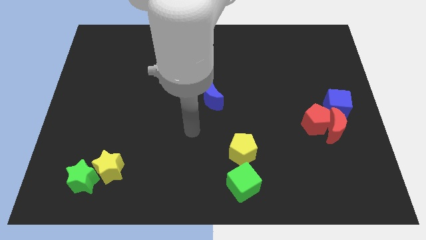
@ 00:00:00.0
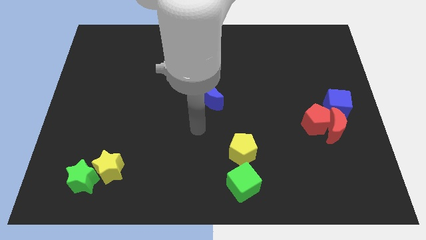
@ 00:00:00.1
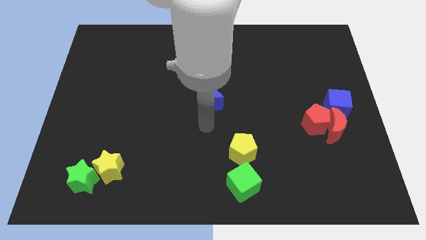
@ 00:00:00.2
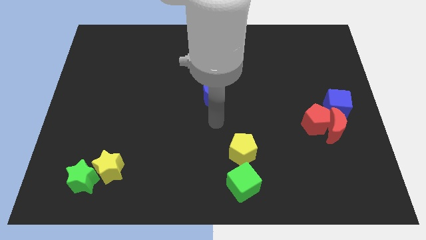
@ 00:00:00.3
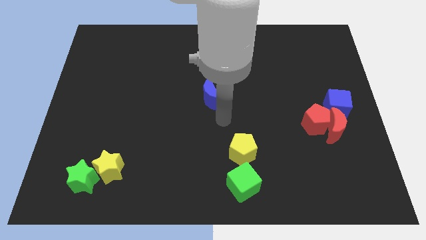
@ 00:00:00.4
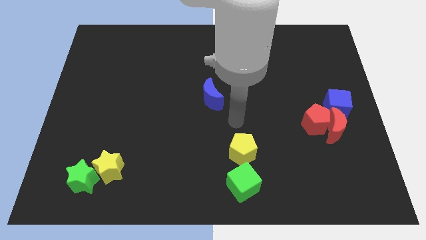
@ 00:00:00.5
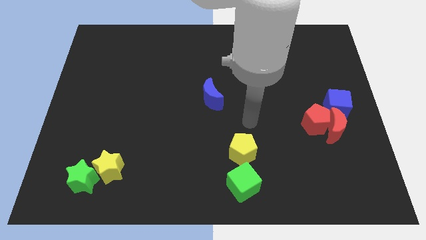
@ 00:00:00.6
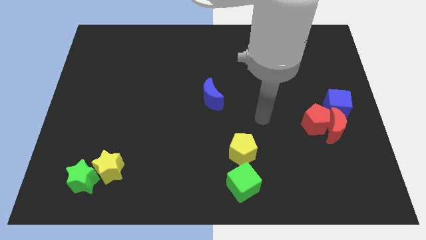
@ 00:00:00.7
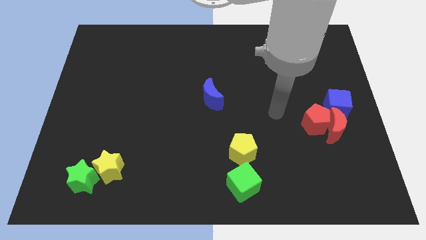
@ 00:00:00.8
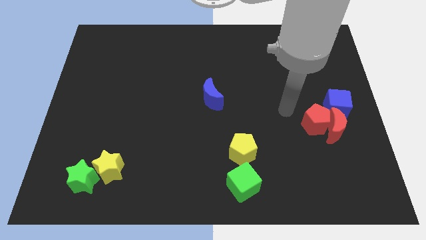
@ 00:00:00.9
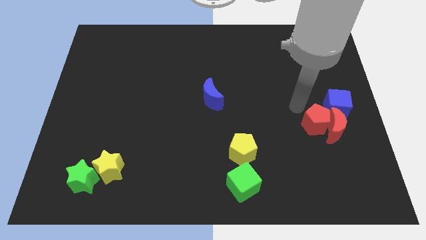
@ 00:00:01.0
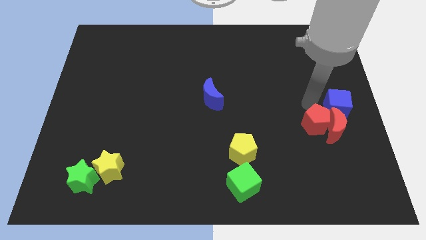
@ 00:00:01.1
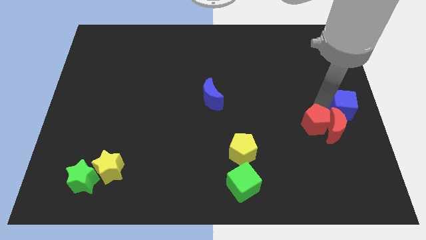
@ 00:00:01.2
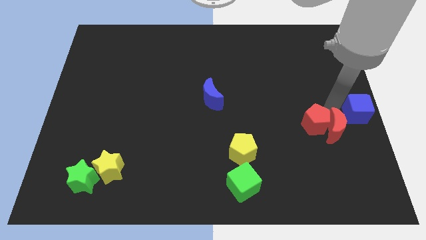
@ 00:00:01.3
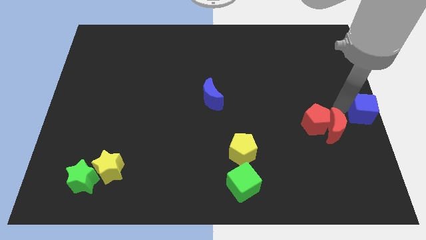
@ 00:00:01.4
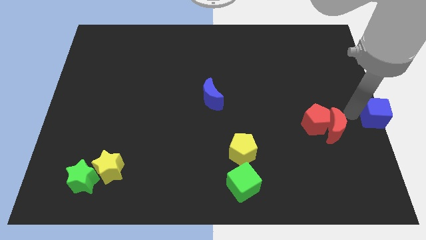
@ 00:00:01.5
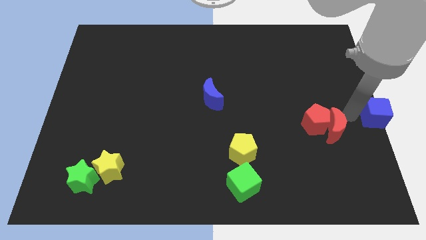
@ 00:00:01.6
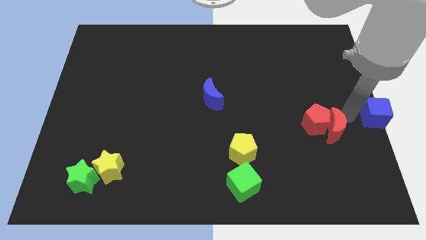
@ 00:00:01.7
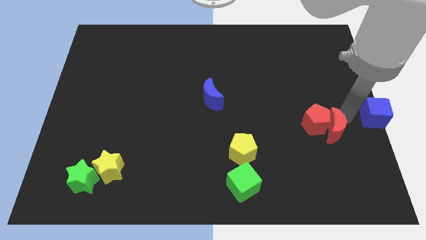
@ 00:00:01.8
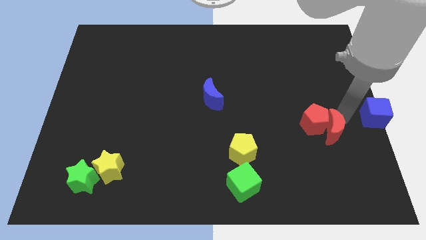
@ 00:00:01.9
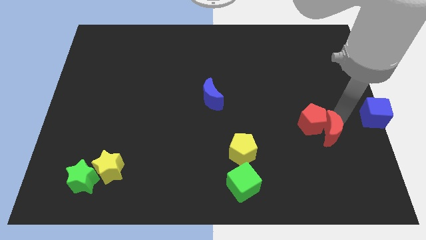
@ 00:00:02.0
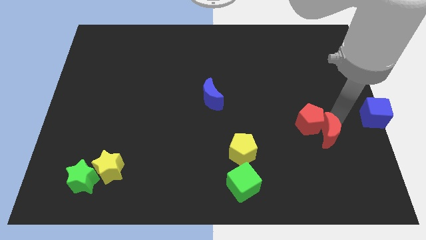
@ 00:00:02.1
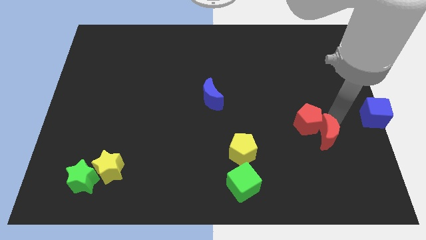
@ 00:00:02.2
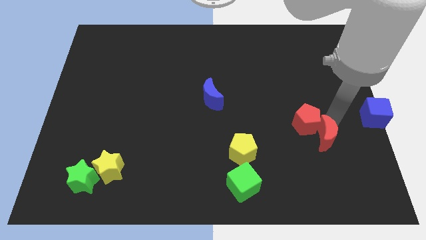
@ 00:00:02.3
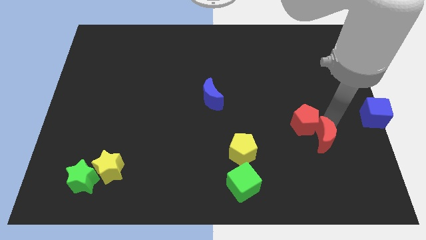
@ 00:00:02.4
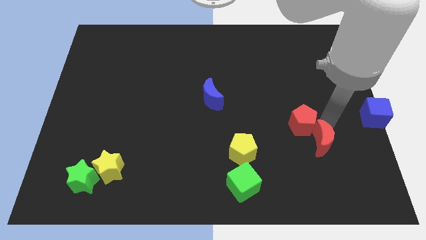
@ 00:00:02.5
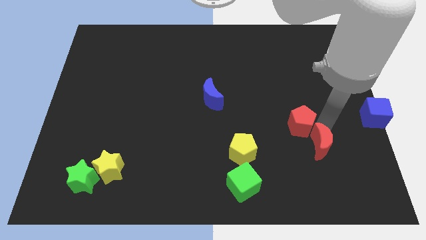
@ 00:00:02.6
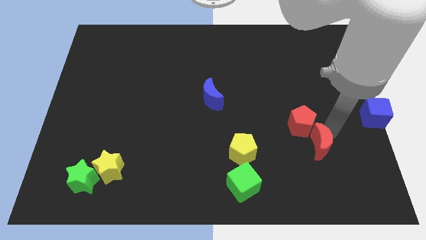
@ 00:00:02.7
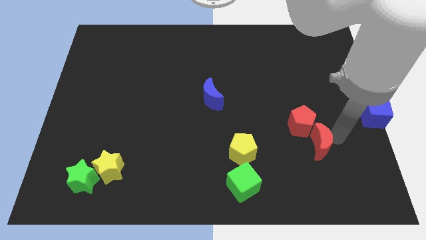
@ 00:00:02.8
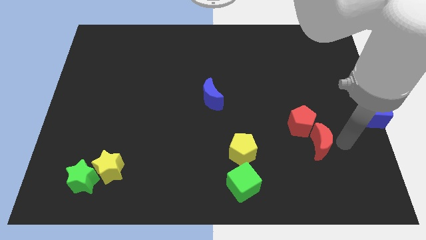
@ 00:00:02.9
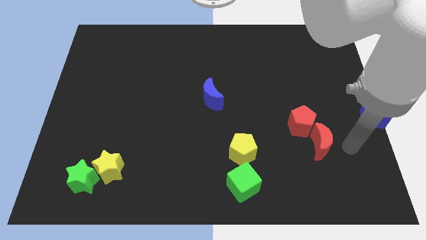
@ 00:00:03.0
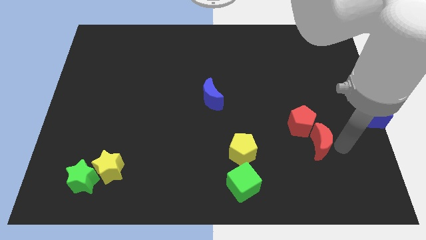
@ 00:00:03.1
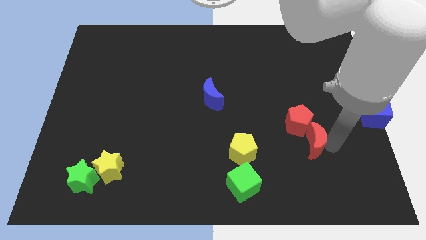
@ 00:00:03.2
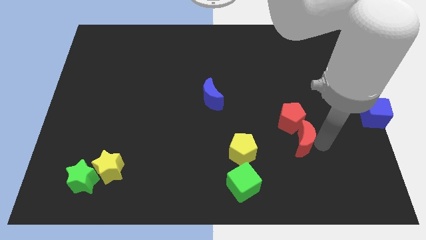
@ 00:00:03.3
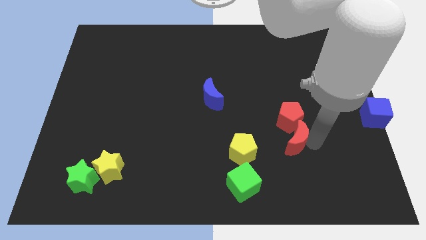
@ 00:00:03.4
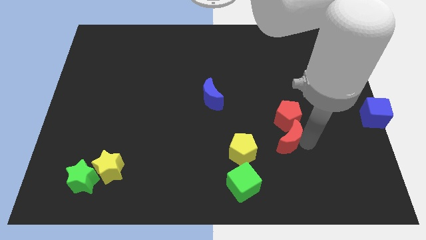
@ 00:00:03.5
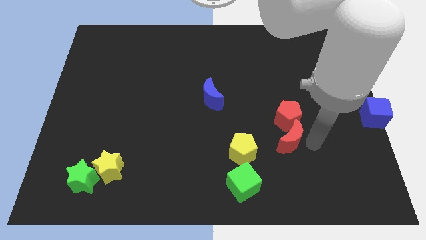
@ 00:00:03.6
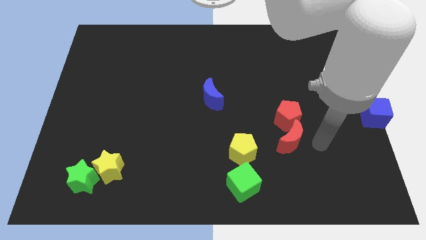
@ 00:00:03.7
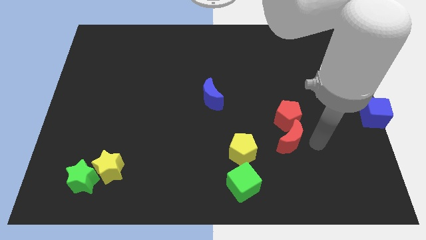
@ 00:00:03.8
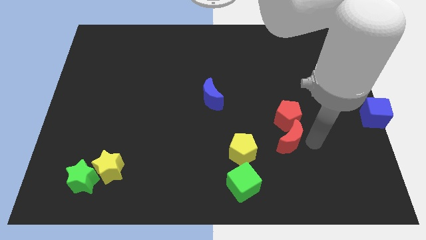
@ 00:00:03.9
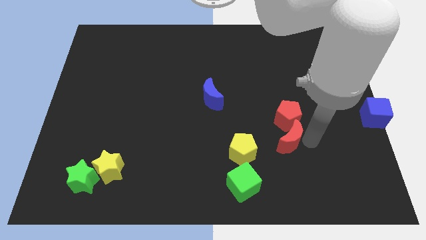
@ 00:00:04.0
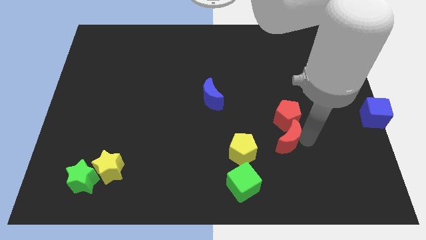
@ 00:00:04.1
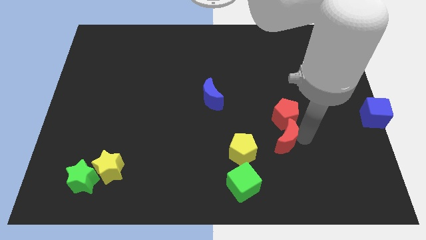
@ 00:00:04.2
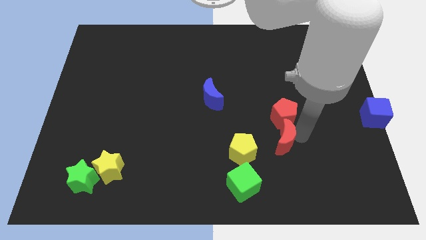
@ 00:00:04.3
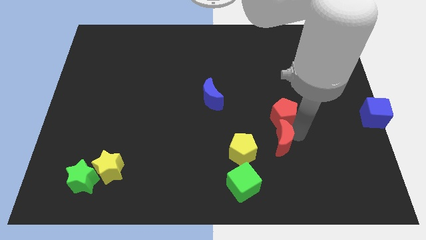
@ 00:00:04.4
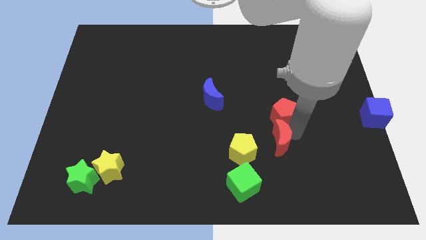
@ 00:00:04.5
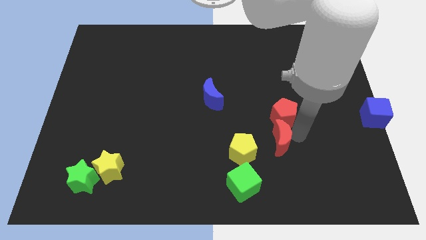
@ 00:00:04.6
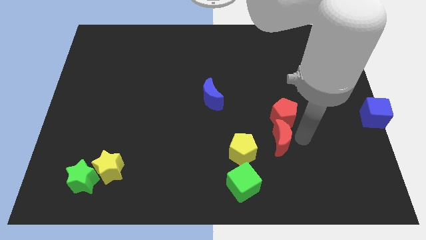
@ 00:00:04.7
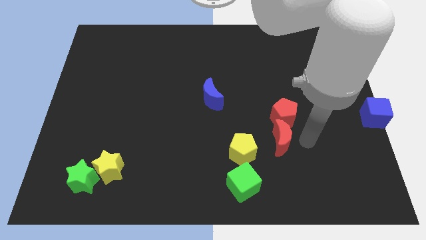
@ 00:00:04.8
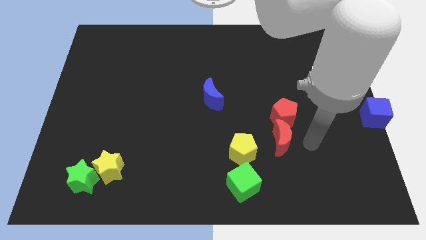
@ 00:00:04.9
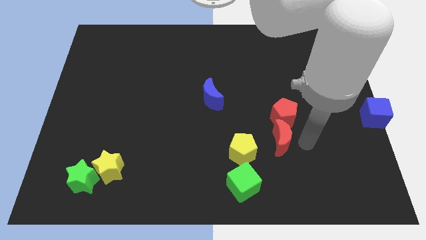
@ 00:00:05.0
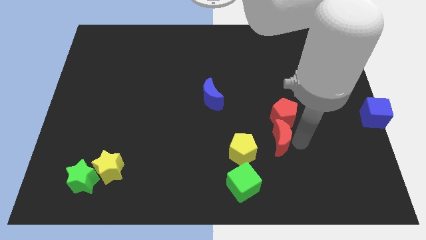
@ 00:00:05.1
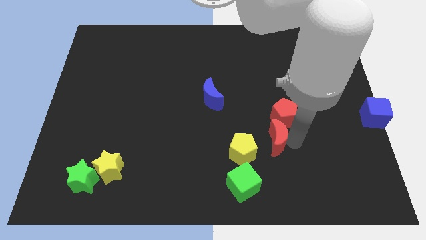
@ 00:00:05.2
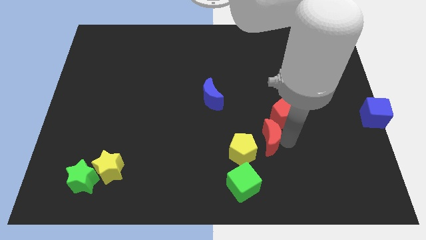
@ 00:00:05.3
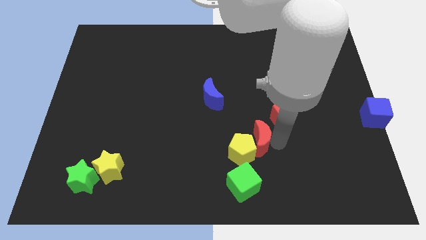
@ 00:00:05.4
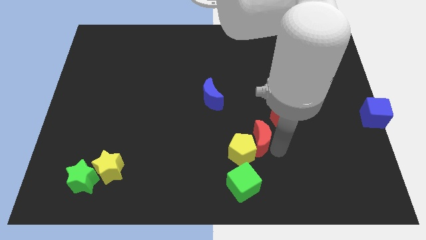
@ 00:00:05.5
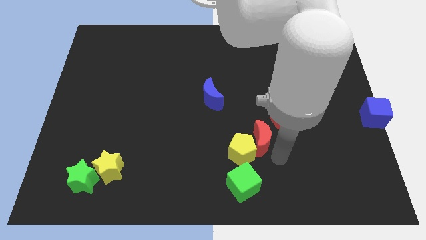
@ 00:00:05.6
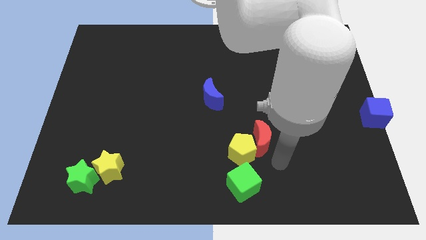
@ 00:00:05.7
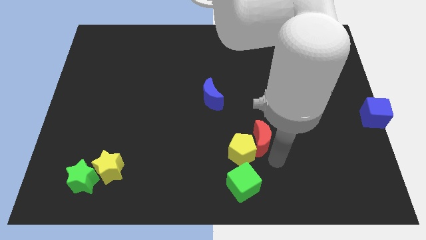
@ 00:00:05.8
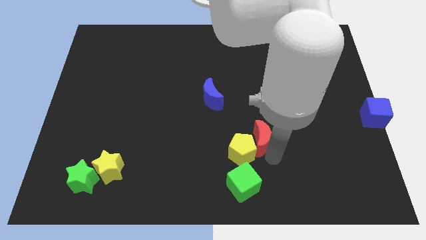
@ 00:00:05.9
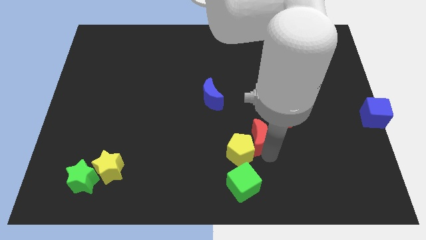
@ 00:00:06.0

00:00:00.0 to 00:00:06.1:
push the red moon to the top side of the yellow pentagon

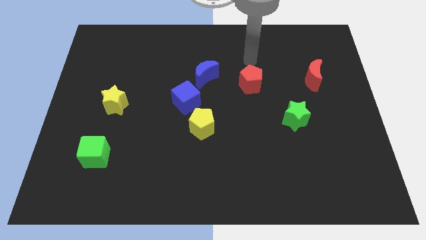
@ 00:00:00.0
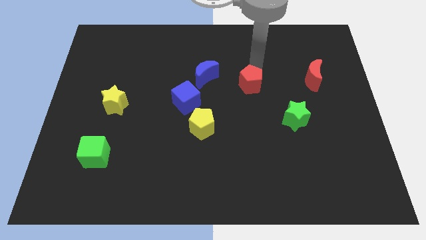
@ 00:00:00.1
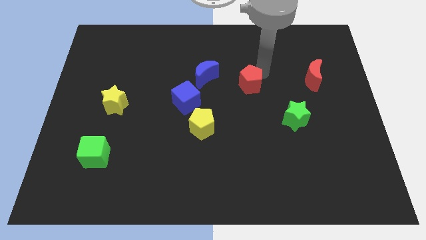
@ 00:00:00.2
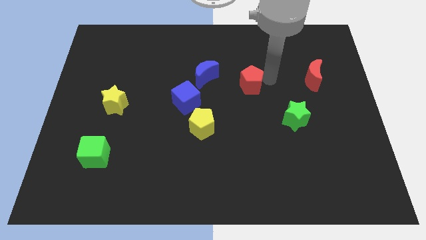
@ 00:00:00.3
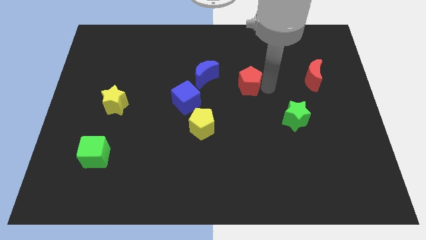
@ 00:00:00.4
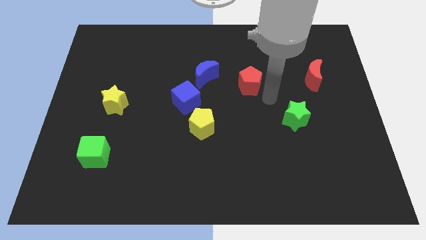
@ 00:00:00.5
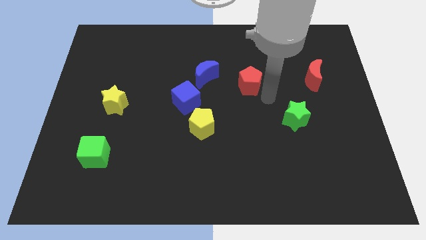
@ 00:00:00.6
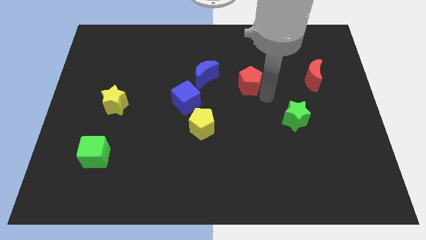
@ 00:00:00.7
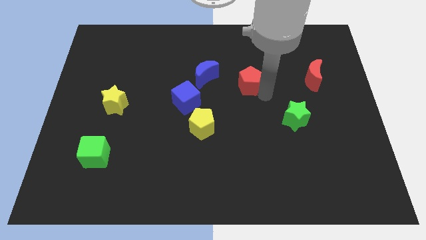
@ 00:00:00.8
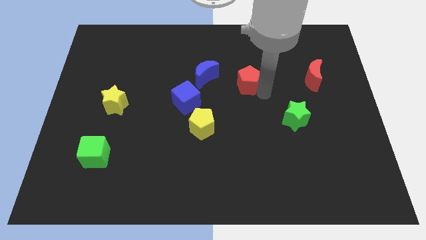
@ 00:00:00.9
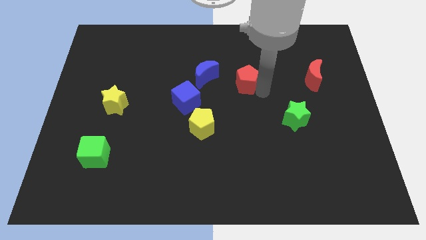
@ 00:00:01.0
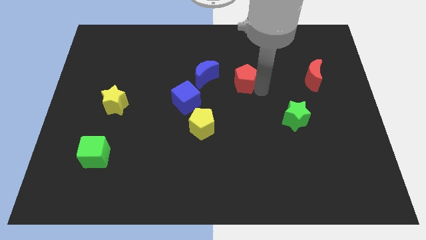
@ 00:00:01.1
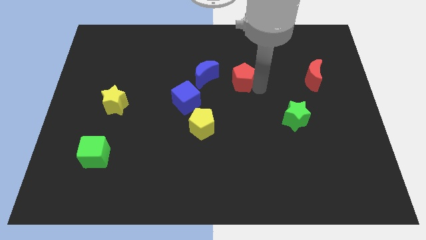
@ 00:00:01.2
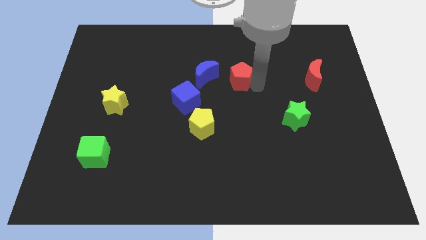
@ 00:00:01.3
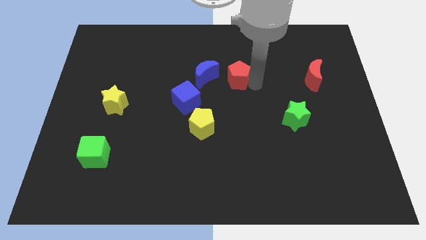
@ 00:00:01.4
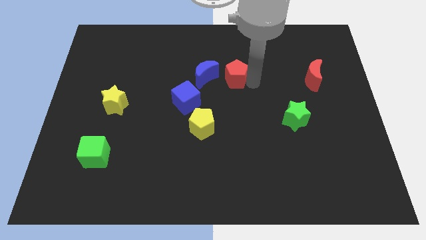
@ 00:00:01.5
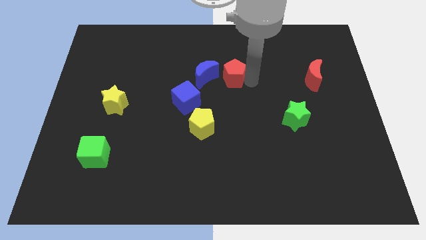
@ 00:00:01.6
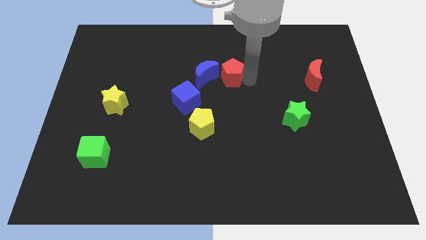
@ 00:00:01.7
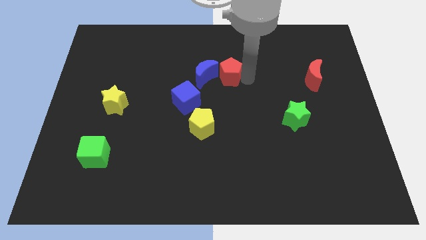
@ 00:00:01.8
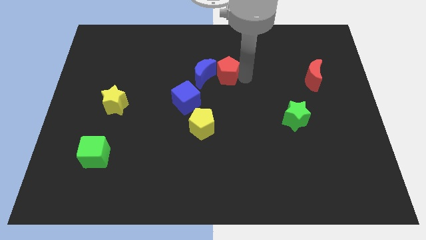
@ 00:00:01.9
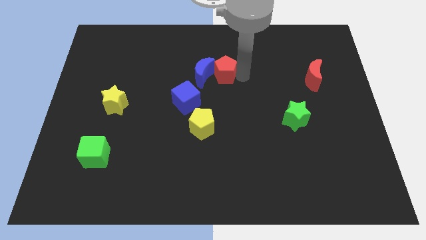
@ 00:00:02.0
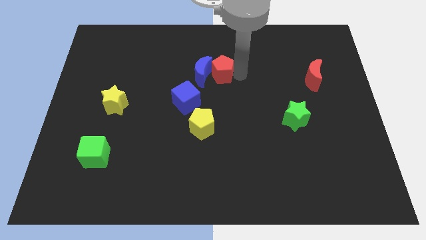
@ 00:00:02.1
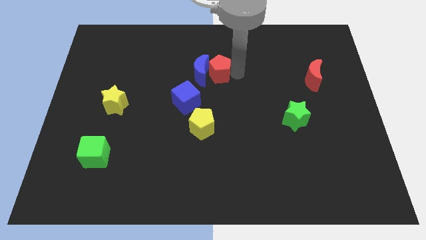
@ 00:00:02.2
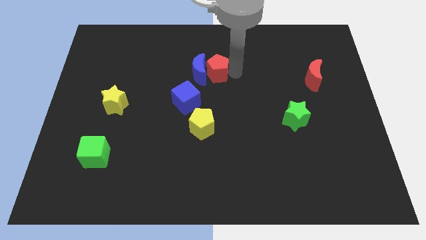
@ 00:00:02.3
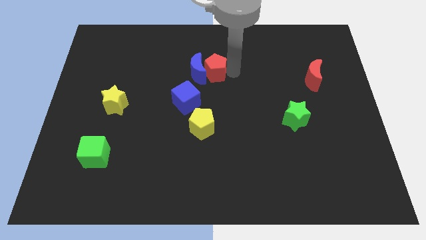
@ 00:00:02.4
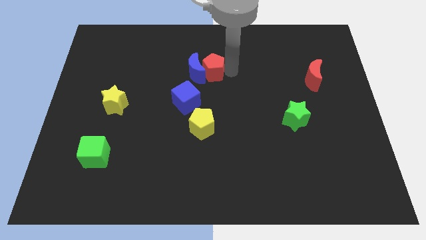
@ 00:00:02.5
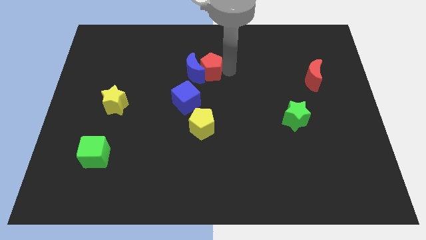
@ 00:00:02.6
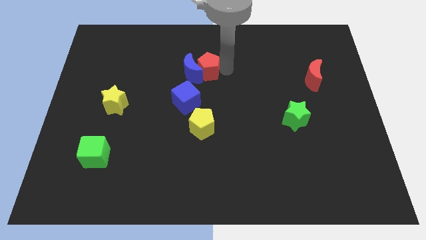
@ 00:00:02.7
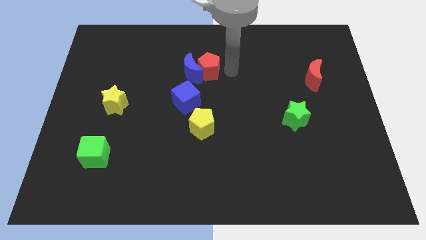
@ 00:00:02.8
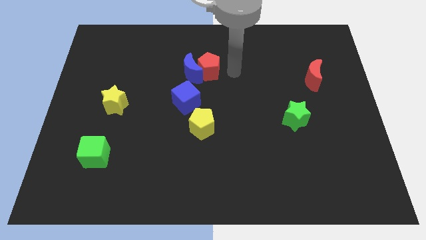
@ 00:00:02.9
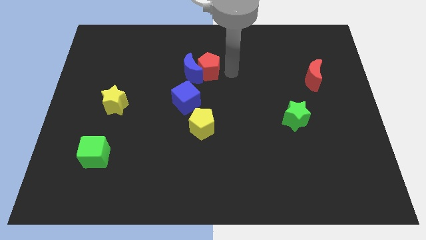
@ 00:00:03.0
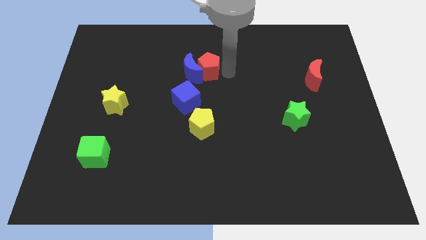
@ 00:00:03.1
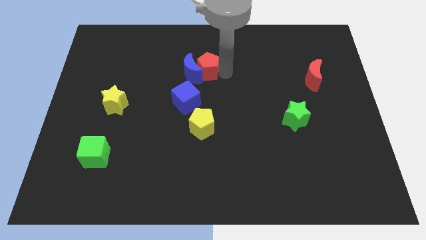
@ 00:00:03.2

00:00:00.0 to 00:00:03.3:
move the red pentagon above the blue cube
